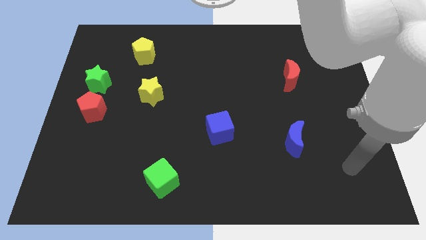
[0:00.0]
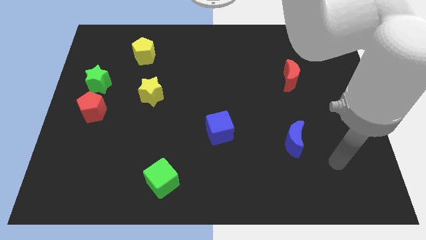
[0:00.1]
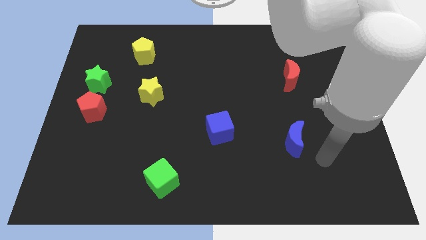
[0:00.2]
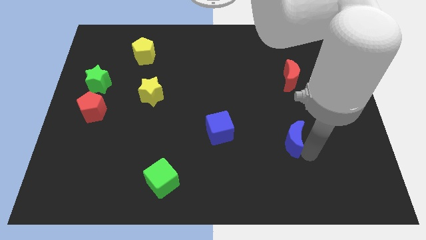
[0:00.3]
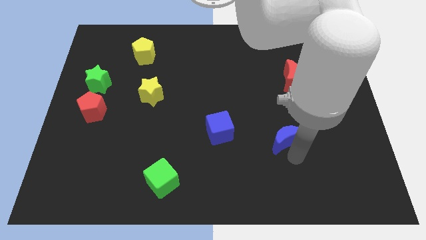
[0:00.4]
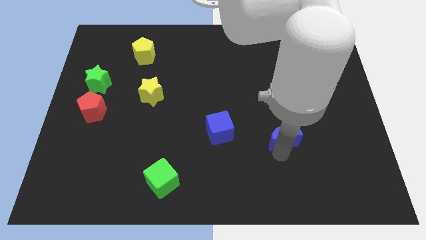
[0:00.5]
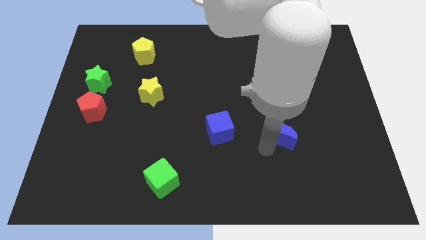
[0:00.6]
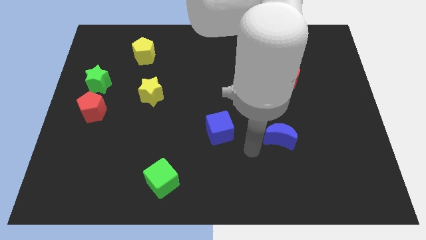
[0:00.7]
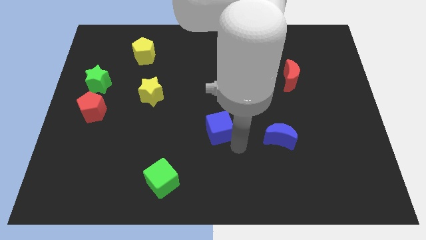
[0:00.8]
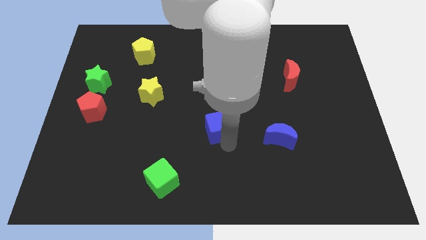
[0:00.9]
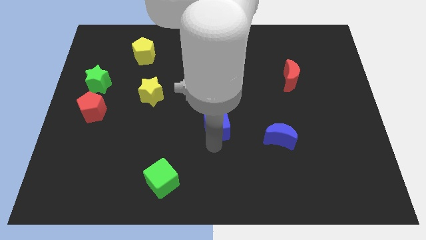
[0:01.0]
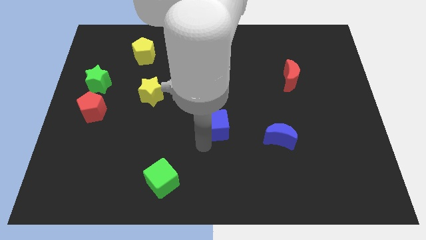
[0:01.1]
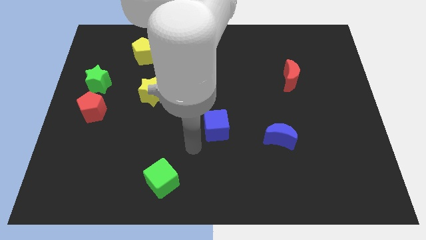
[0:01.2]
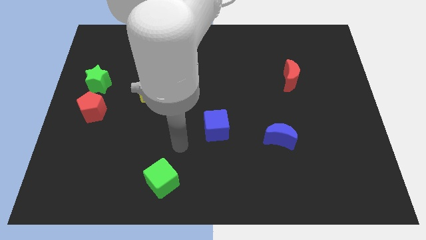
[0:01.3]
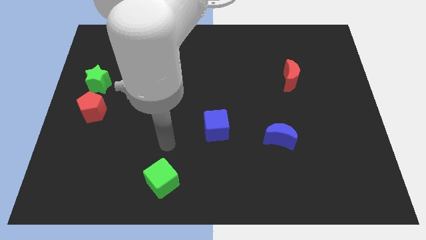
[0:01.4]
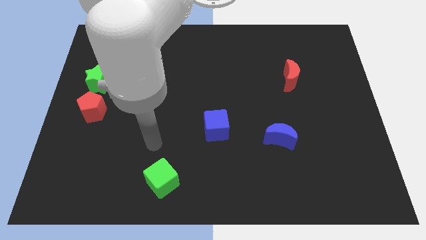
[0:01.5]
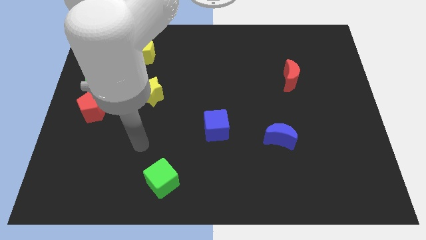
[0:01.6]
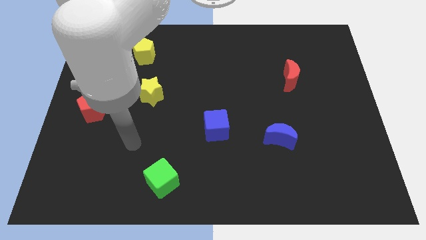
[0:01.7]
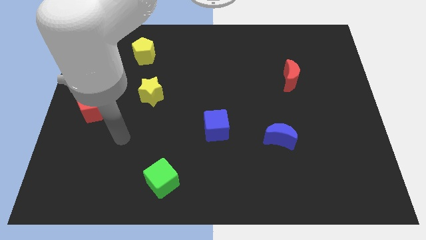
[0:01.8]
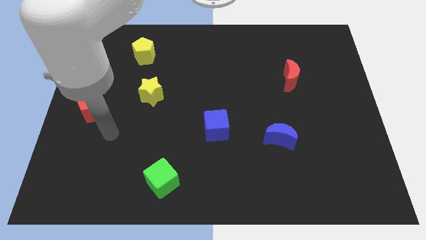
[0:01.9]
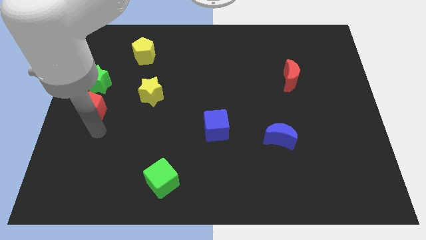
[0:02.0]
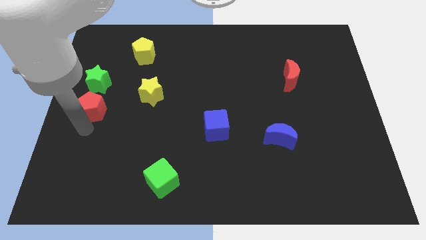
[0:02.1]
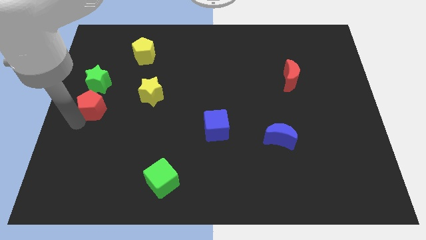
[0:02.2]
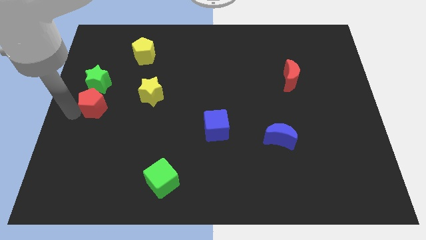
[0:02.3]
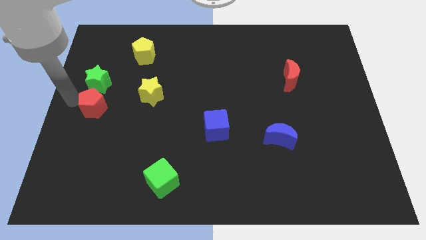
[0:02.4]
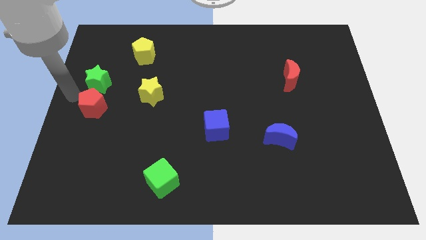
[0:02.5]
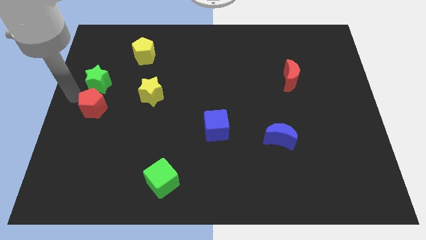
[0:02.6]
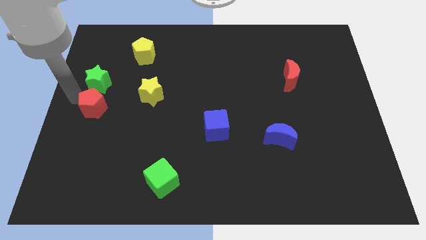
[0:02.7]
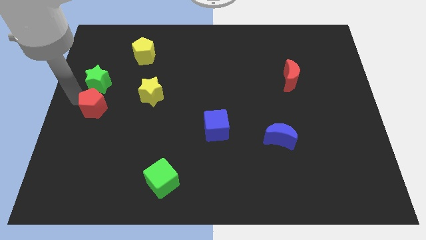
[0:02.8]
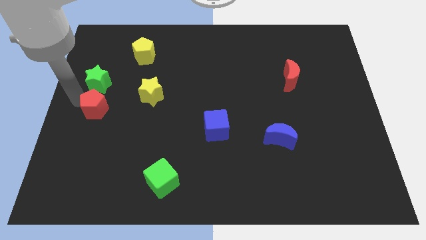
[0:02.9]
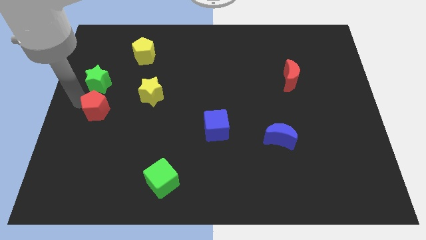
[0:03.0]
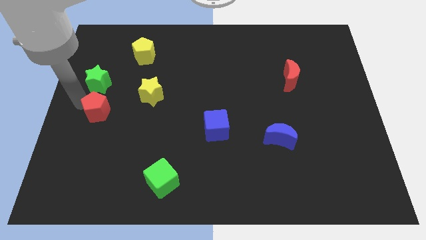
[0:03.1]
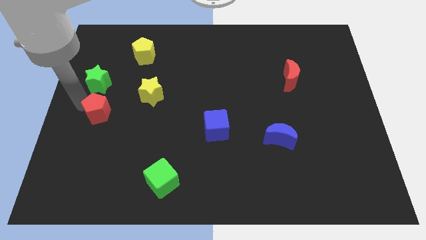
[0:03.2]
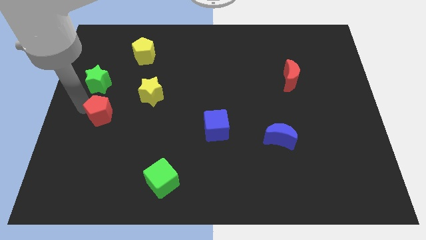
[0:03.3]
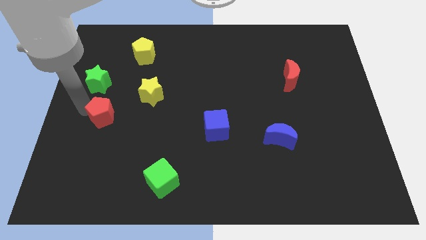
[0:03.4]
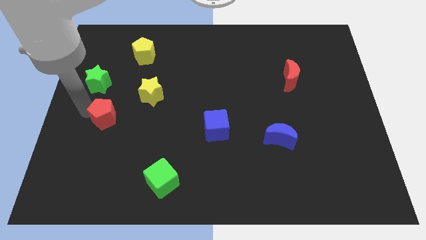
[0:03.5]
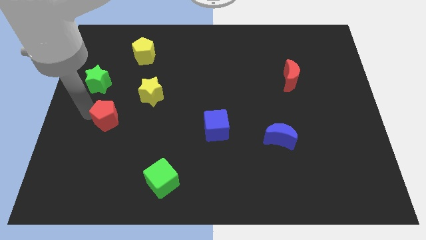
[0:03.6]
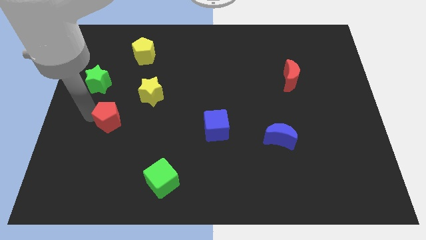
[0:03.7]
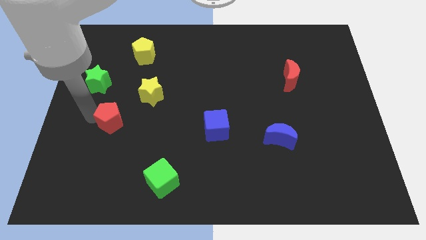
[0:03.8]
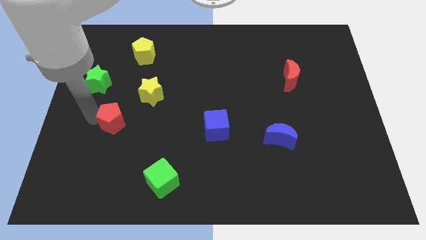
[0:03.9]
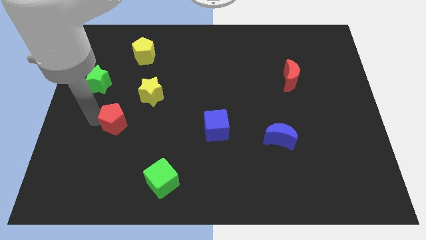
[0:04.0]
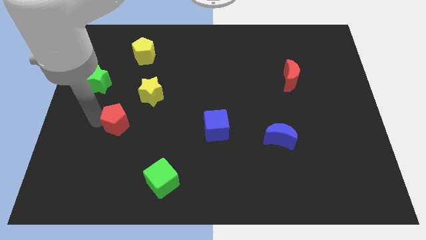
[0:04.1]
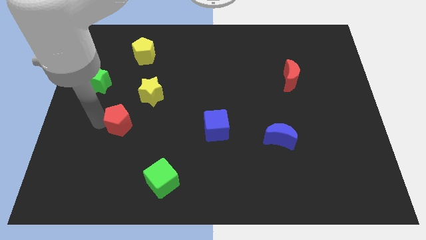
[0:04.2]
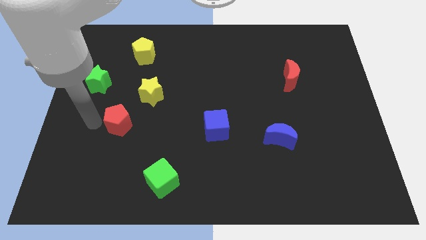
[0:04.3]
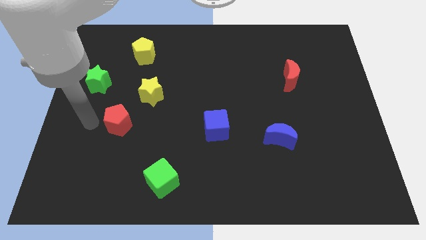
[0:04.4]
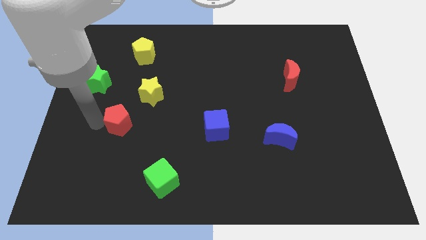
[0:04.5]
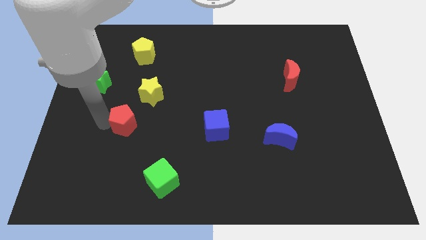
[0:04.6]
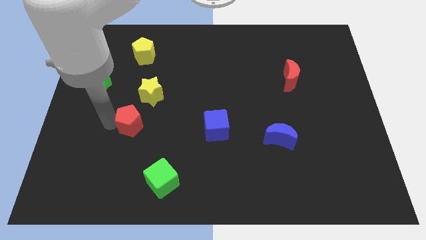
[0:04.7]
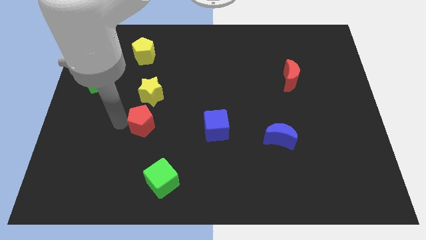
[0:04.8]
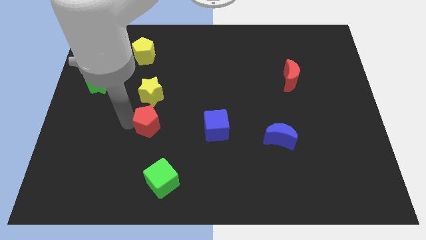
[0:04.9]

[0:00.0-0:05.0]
push the red pentagon to the left of the blue cube

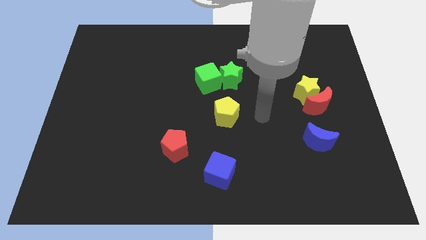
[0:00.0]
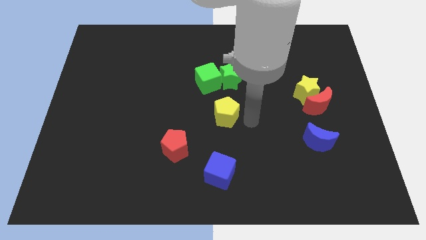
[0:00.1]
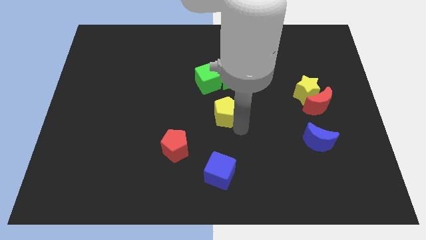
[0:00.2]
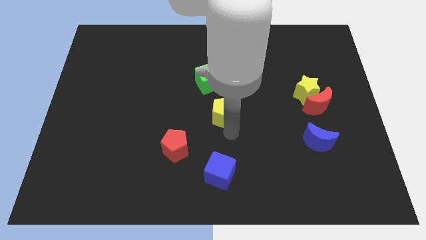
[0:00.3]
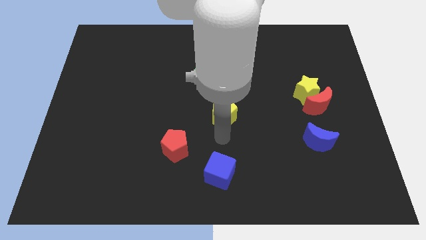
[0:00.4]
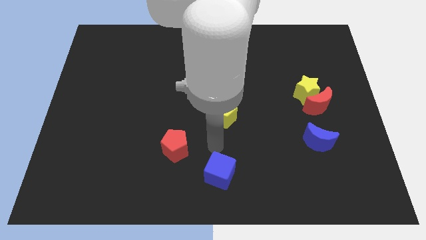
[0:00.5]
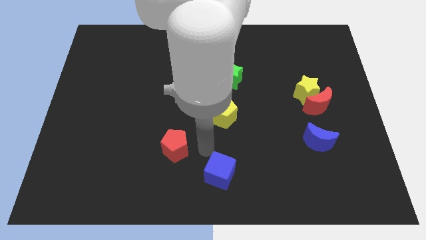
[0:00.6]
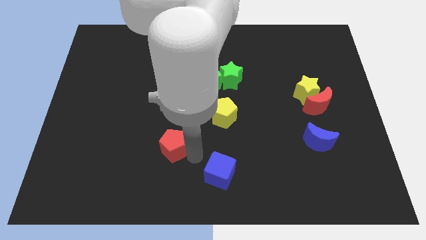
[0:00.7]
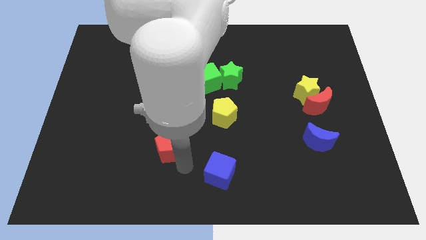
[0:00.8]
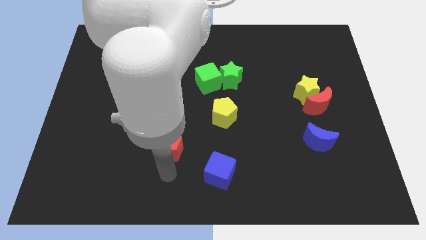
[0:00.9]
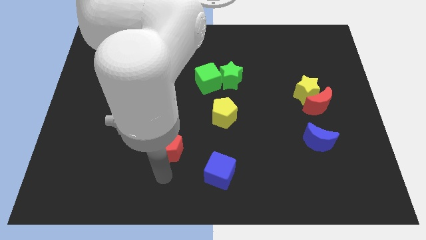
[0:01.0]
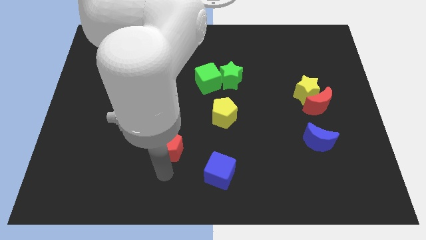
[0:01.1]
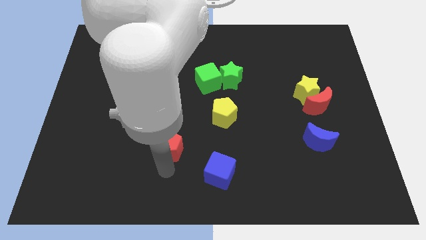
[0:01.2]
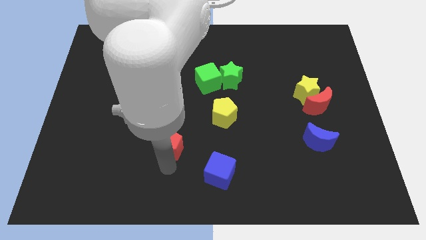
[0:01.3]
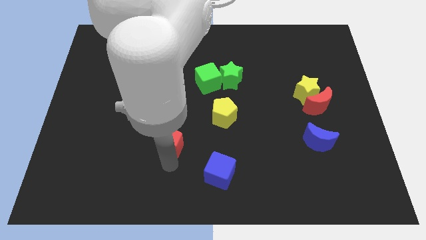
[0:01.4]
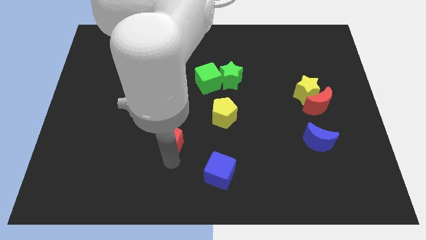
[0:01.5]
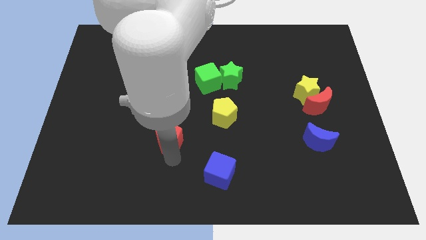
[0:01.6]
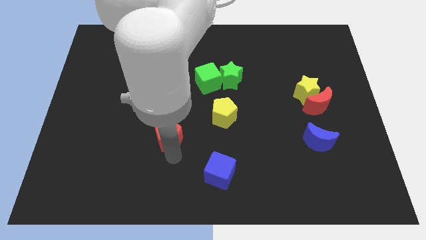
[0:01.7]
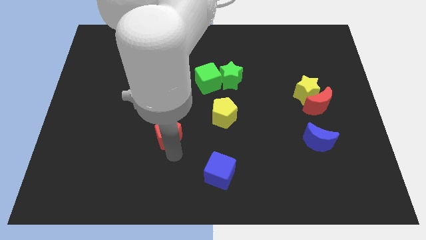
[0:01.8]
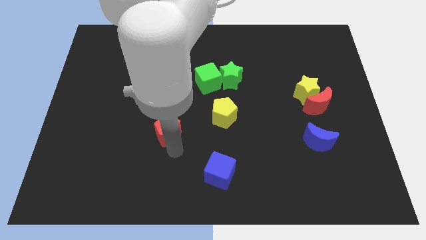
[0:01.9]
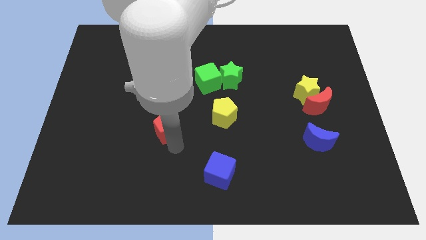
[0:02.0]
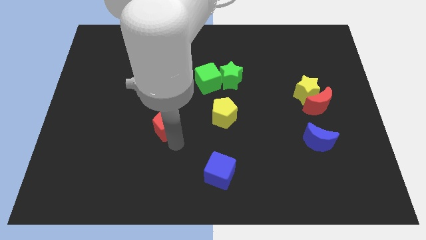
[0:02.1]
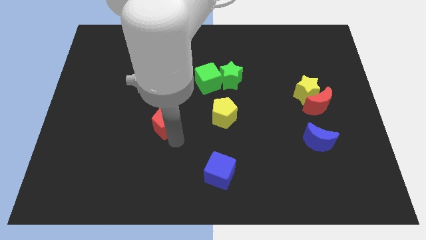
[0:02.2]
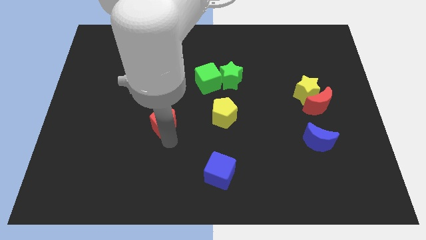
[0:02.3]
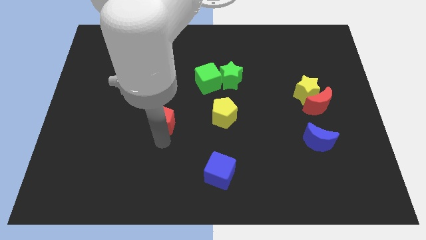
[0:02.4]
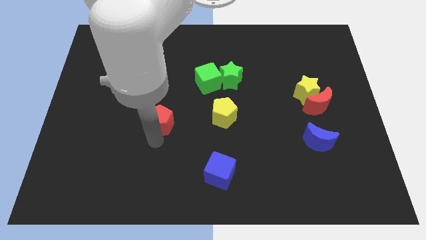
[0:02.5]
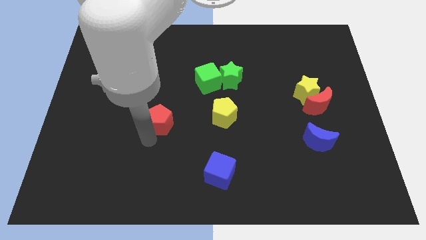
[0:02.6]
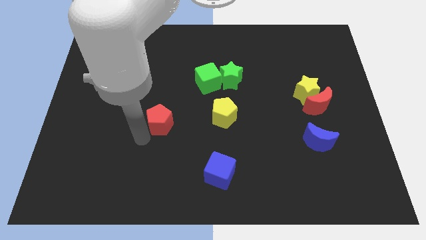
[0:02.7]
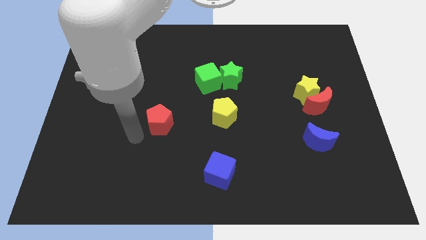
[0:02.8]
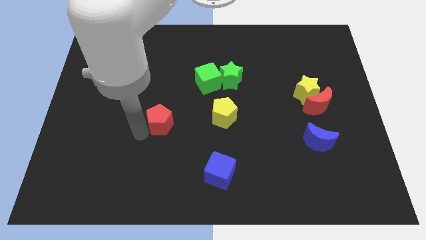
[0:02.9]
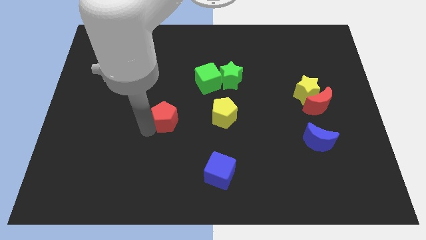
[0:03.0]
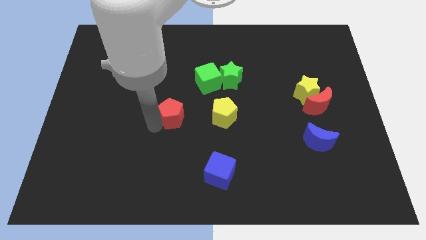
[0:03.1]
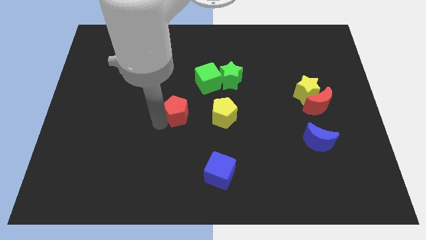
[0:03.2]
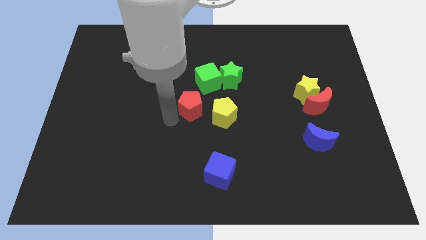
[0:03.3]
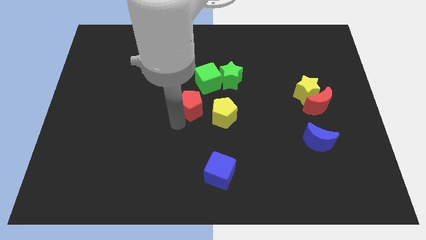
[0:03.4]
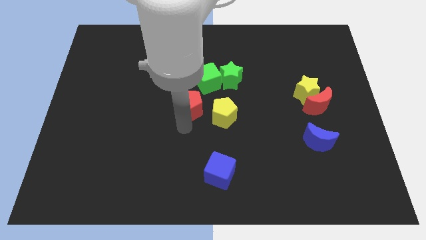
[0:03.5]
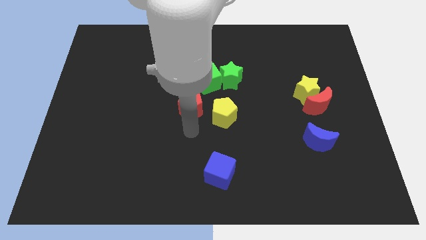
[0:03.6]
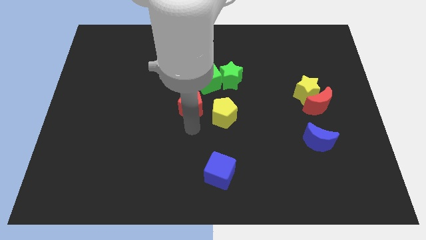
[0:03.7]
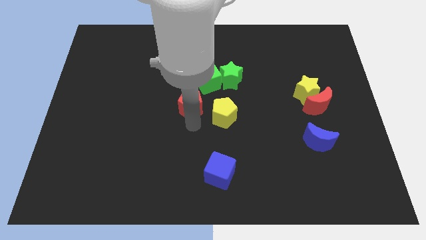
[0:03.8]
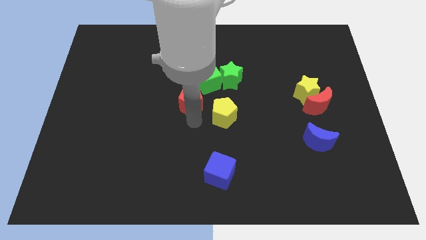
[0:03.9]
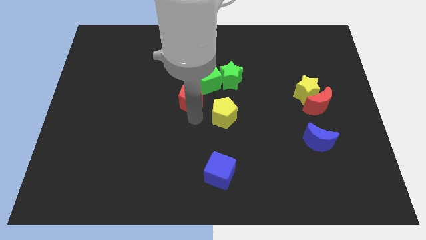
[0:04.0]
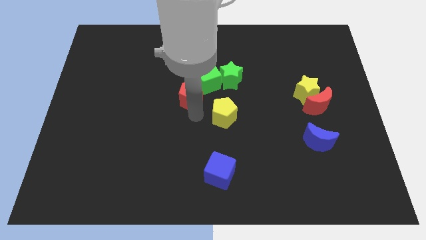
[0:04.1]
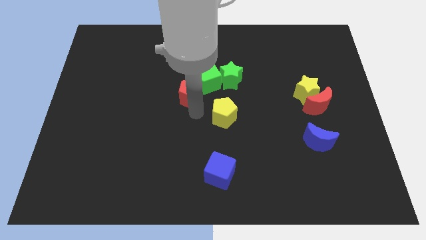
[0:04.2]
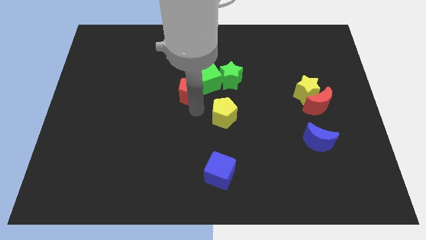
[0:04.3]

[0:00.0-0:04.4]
put the red pentagon to the left side of the green star
